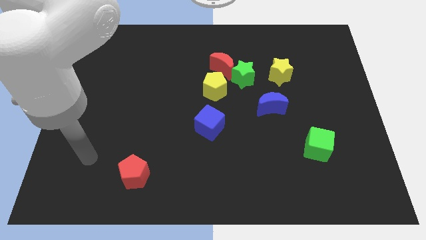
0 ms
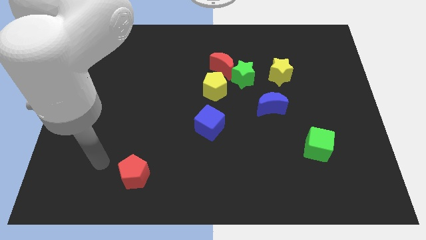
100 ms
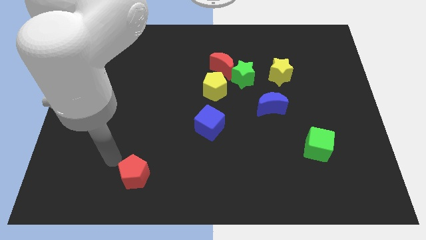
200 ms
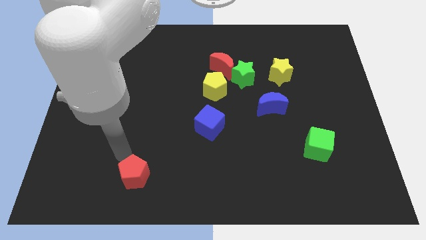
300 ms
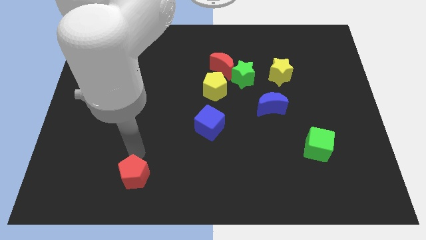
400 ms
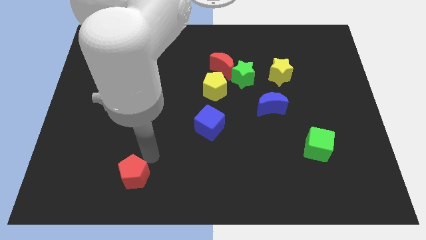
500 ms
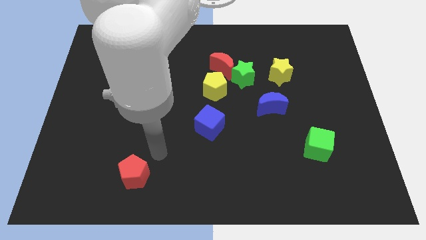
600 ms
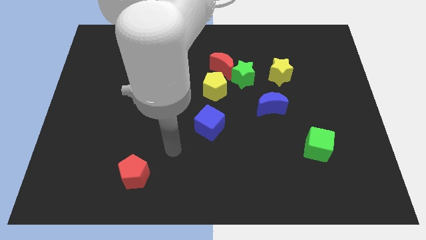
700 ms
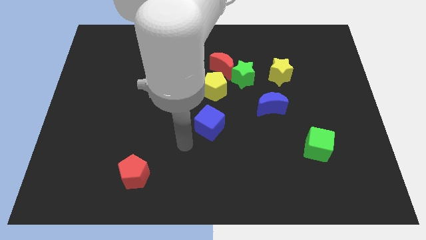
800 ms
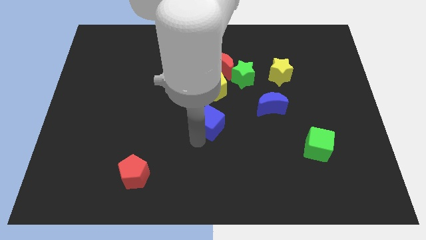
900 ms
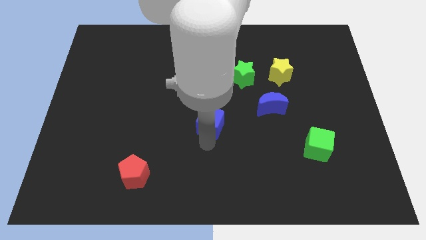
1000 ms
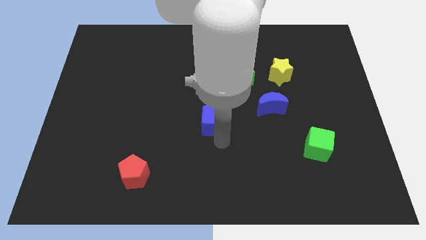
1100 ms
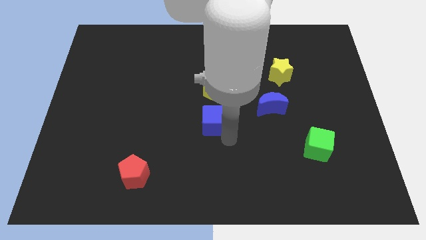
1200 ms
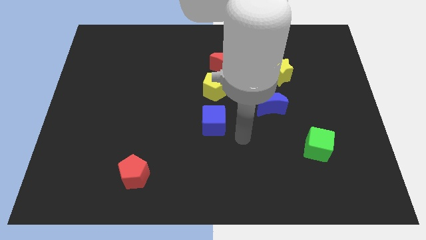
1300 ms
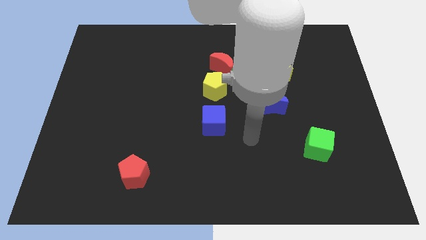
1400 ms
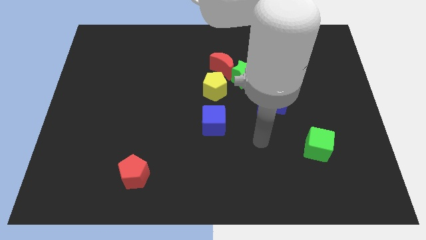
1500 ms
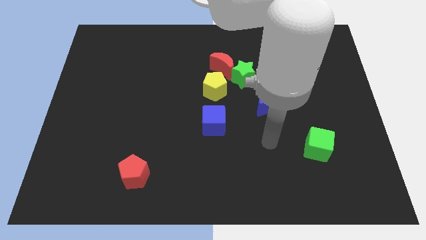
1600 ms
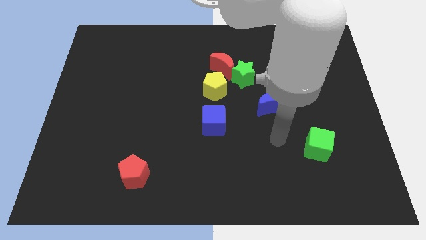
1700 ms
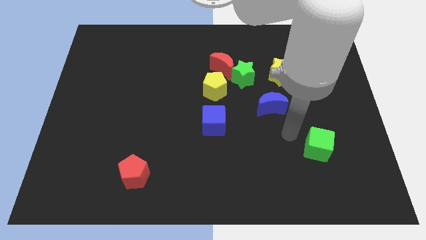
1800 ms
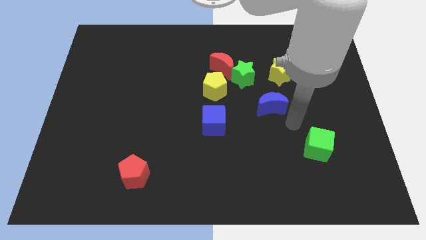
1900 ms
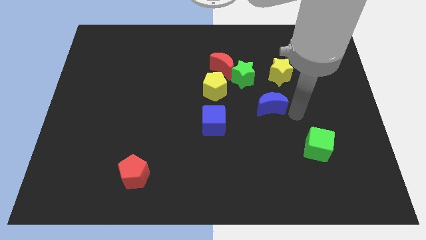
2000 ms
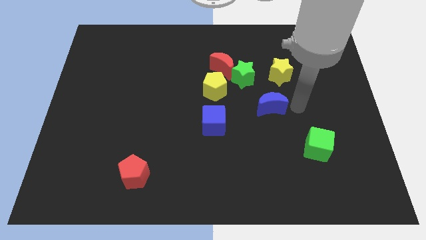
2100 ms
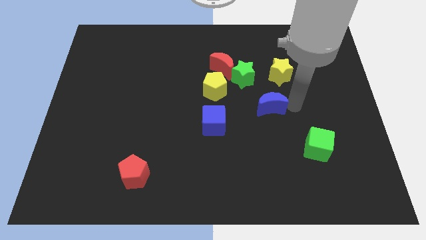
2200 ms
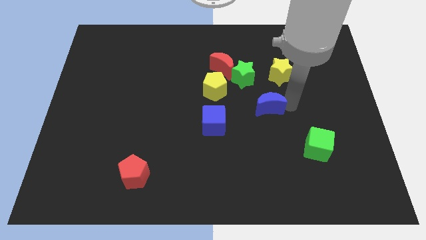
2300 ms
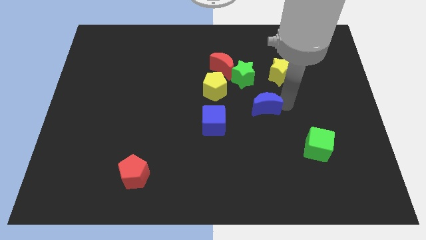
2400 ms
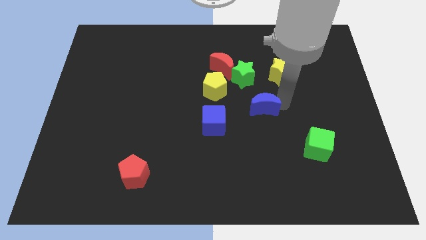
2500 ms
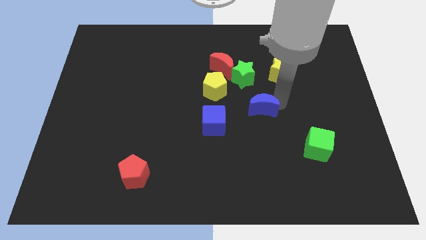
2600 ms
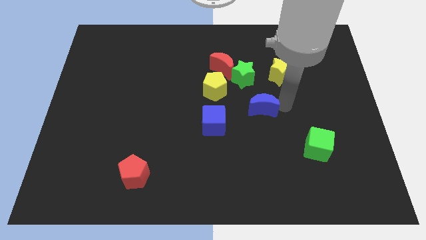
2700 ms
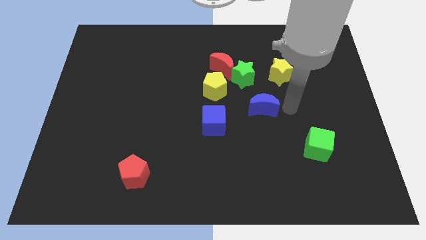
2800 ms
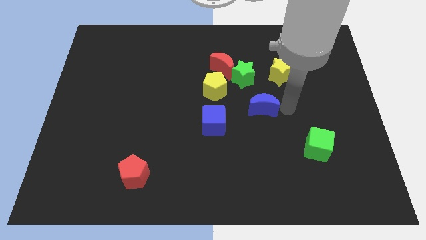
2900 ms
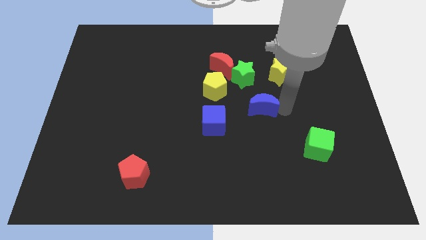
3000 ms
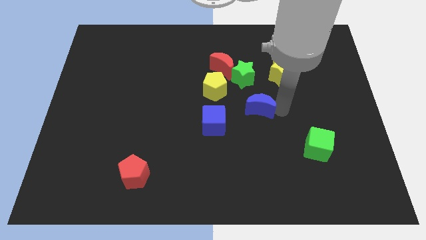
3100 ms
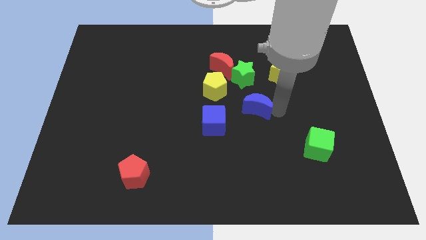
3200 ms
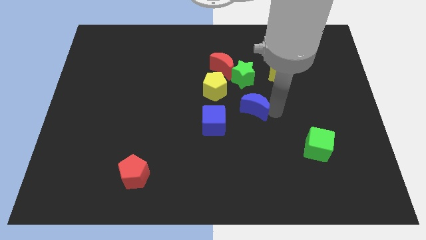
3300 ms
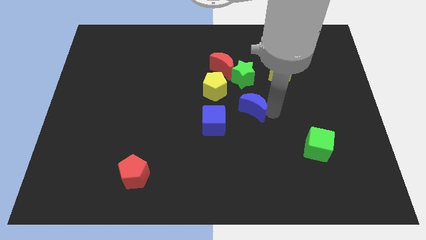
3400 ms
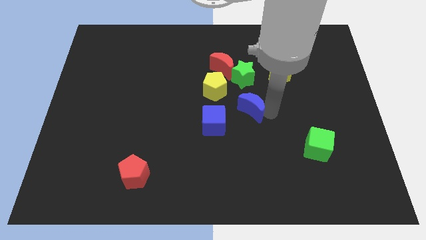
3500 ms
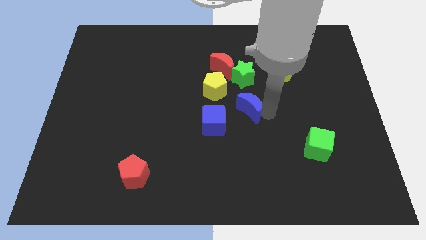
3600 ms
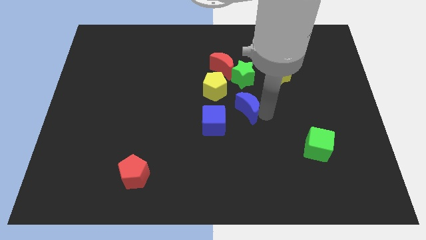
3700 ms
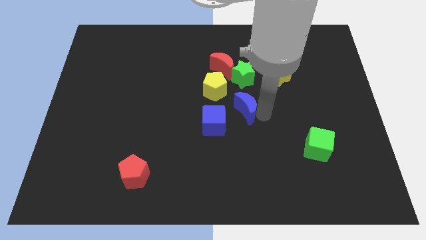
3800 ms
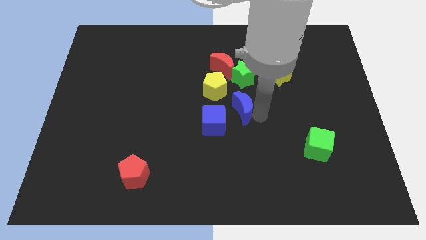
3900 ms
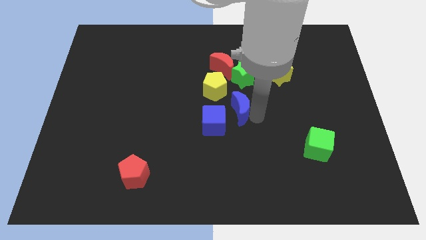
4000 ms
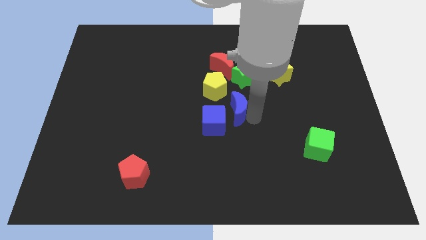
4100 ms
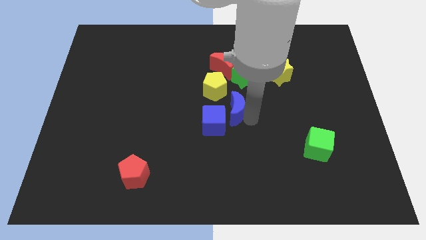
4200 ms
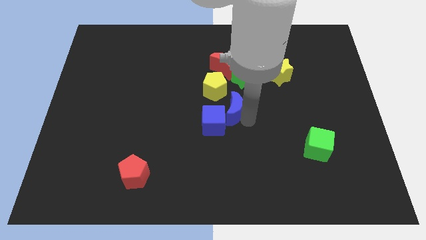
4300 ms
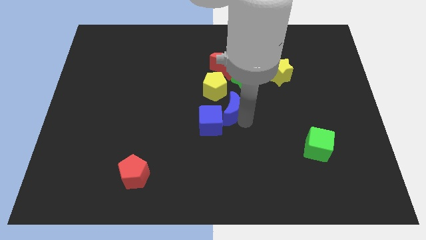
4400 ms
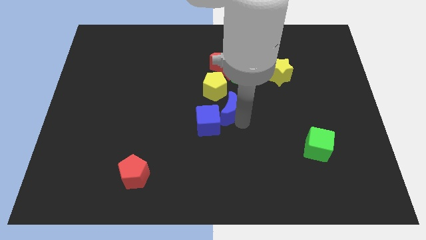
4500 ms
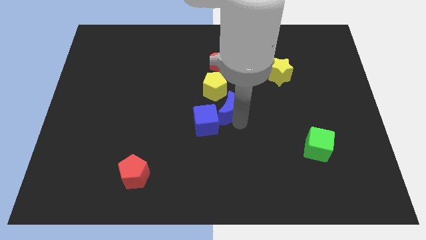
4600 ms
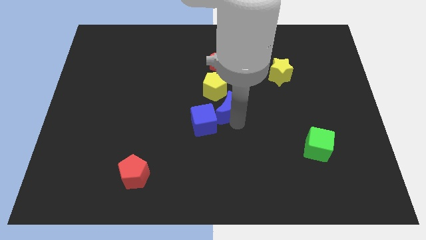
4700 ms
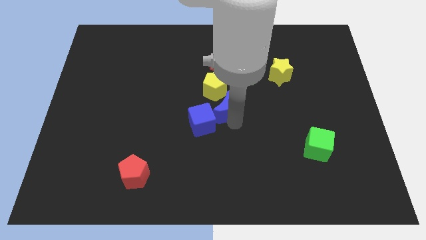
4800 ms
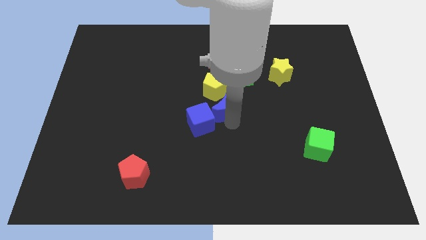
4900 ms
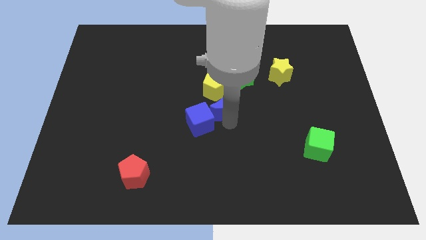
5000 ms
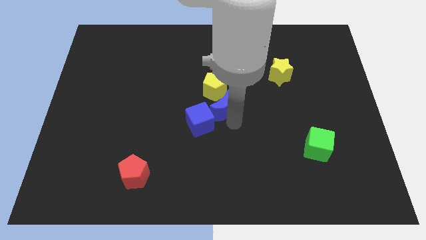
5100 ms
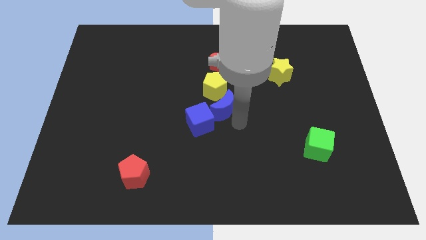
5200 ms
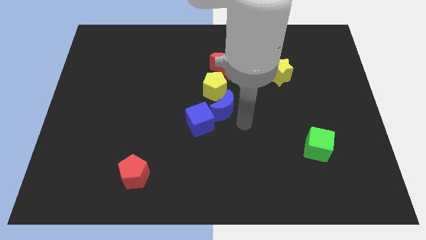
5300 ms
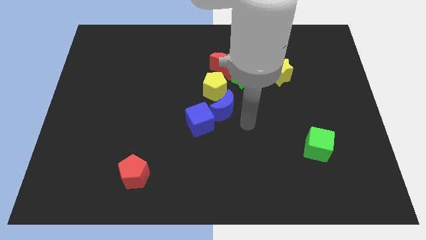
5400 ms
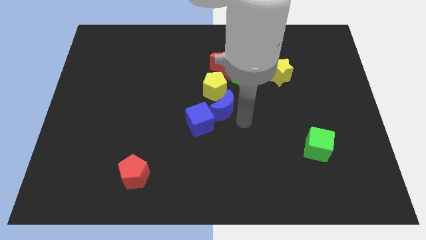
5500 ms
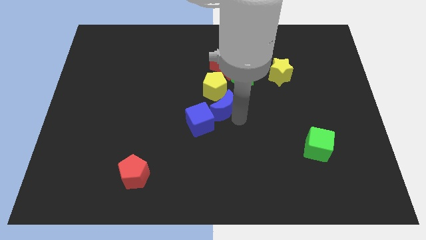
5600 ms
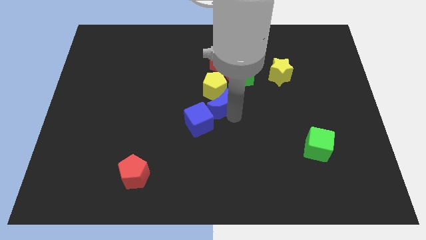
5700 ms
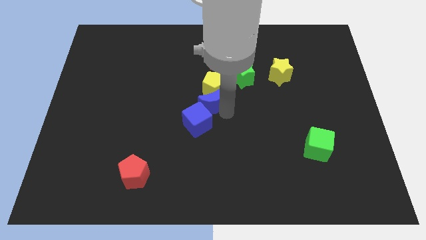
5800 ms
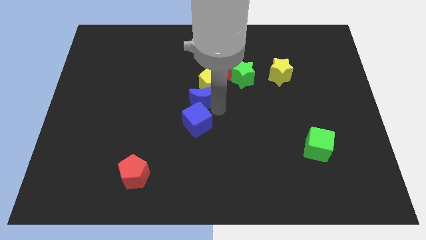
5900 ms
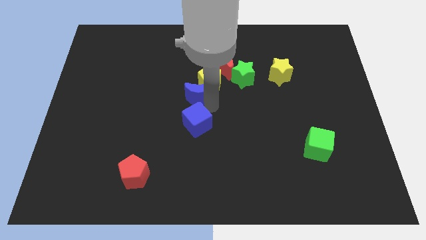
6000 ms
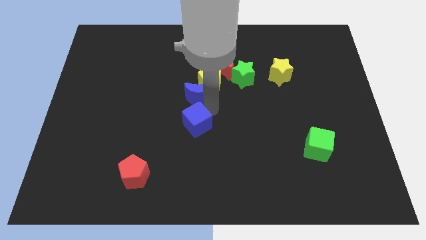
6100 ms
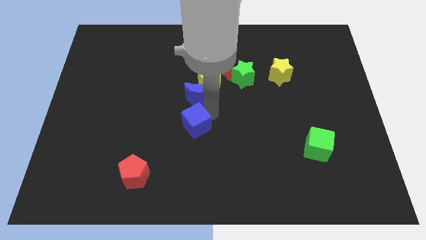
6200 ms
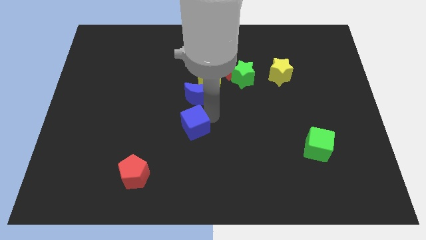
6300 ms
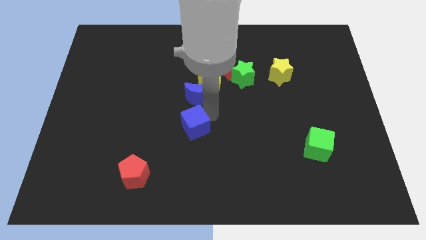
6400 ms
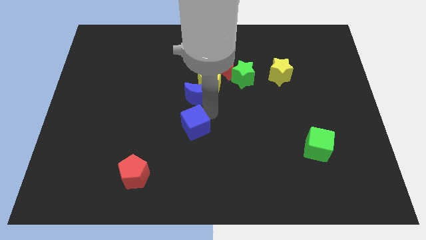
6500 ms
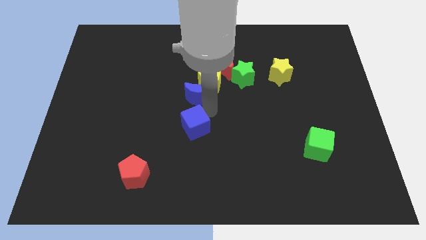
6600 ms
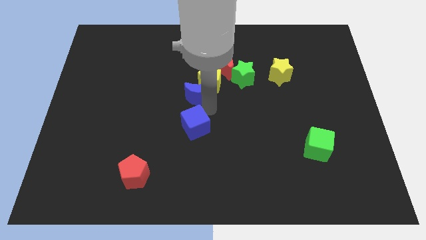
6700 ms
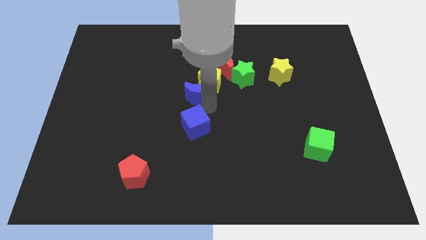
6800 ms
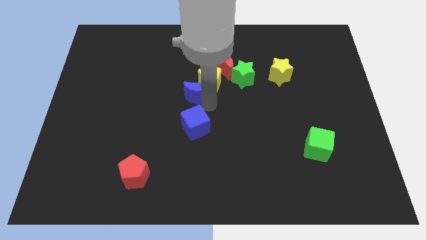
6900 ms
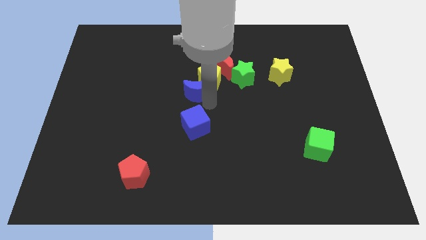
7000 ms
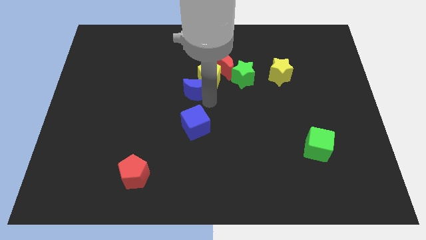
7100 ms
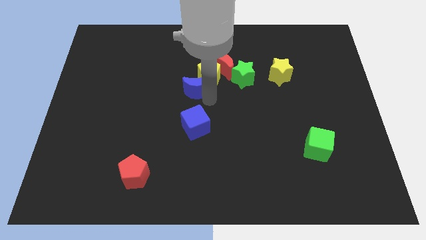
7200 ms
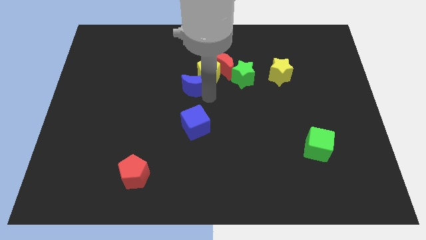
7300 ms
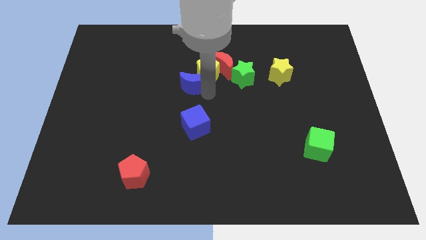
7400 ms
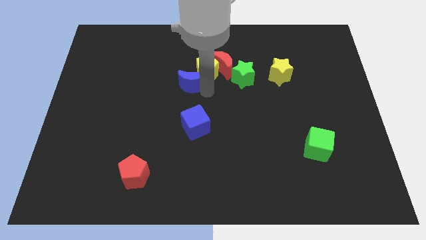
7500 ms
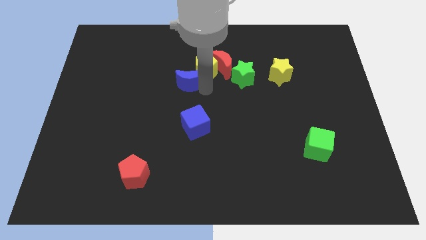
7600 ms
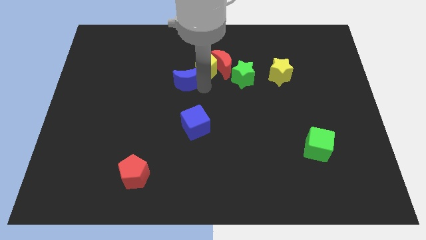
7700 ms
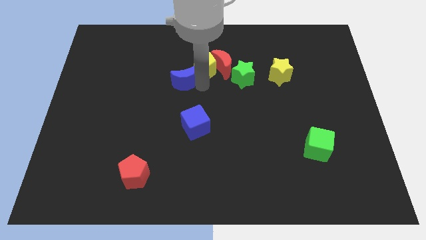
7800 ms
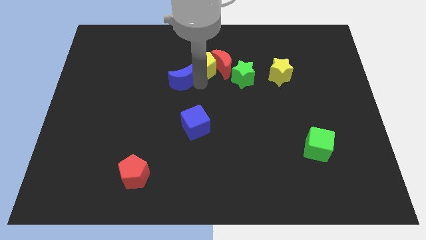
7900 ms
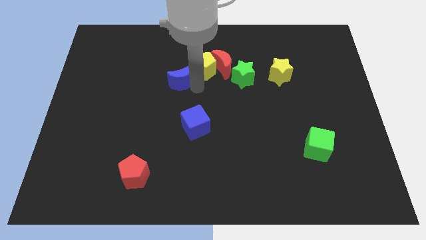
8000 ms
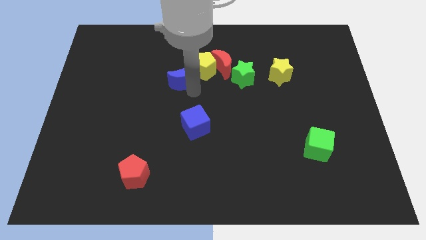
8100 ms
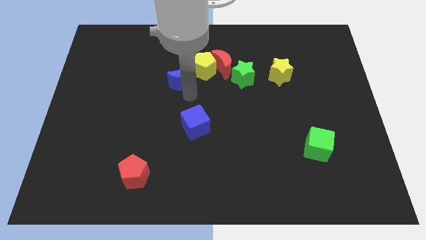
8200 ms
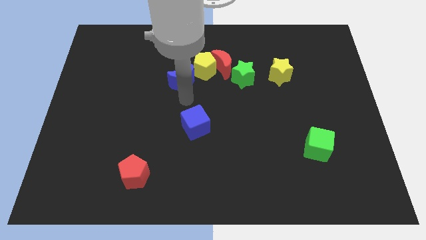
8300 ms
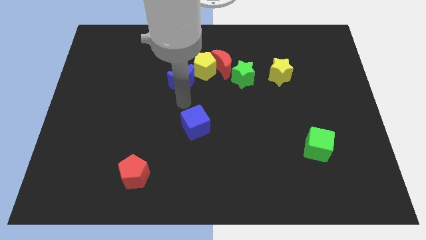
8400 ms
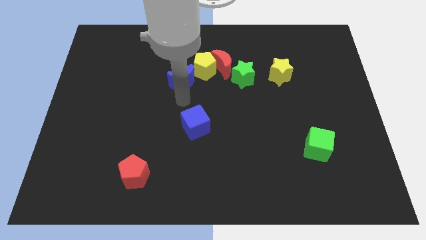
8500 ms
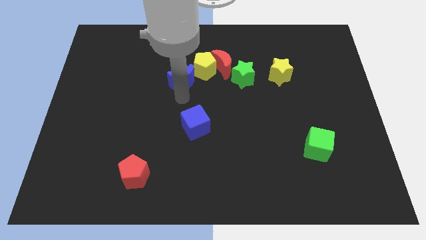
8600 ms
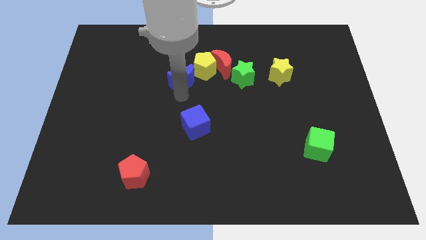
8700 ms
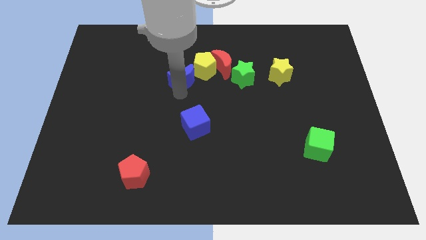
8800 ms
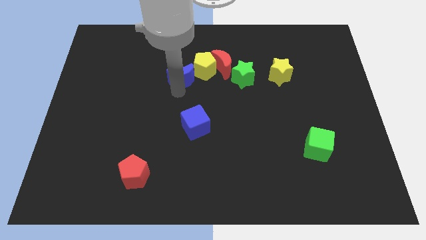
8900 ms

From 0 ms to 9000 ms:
move the blue moon to the left side of the red moon
